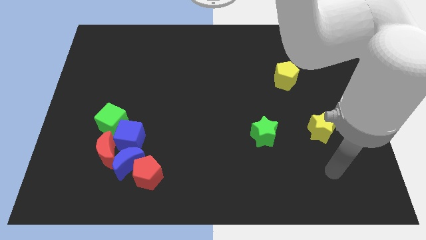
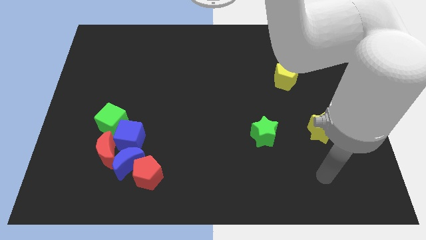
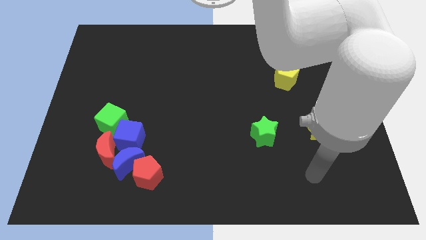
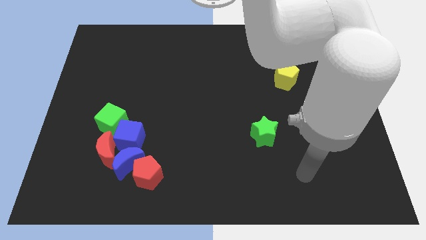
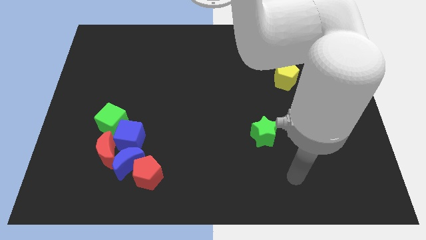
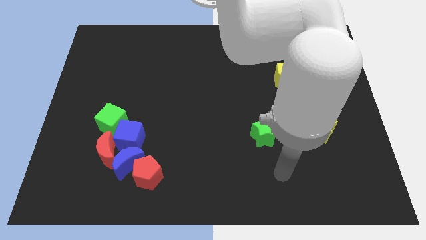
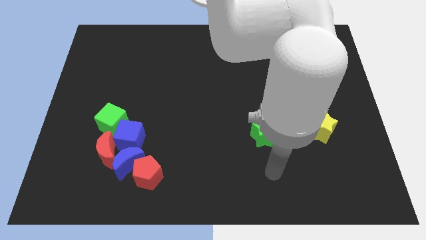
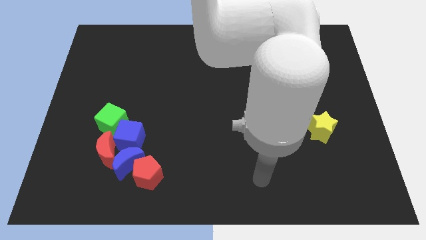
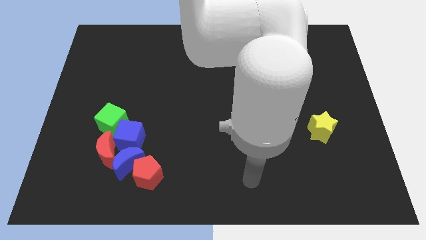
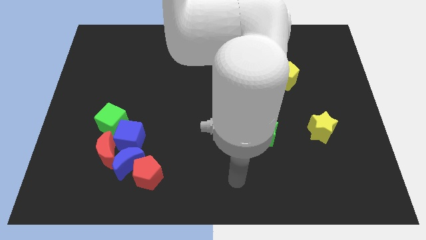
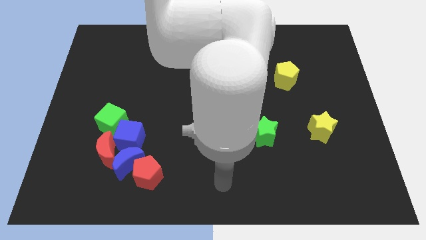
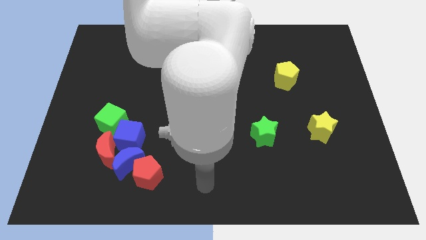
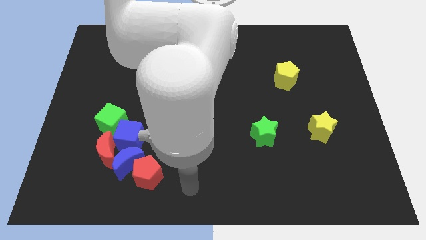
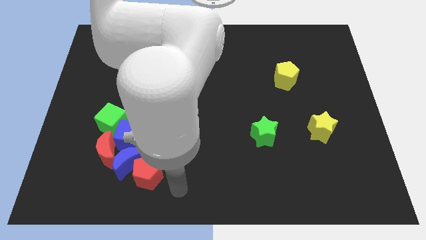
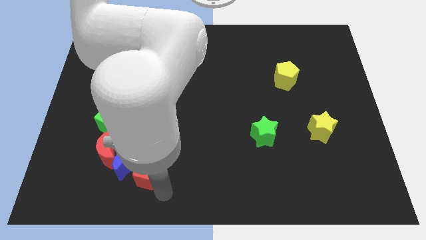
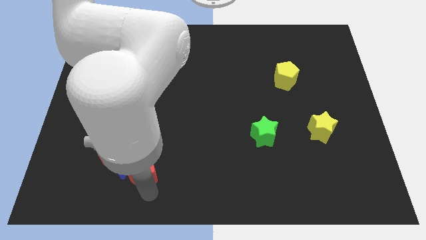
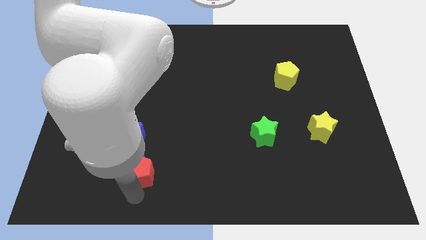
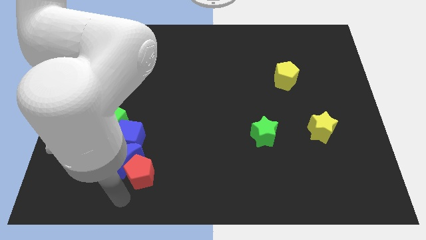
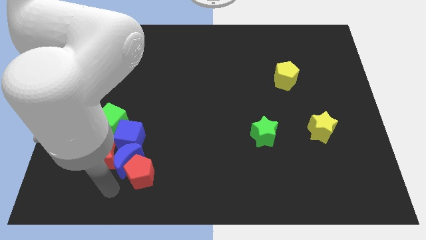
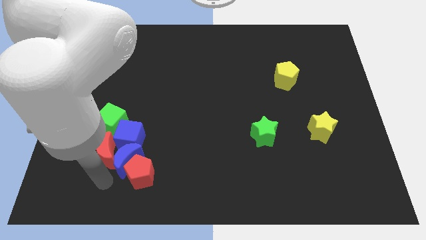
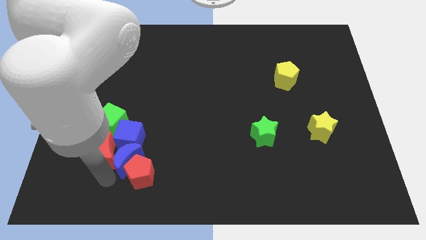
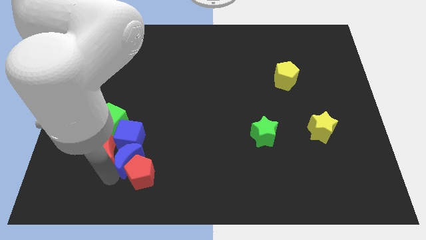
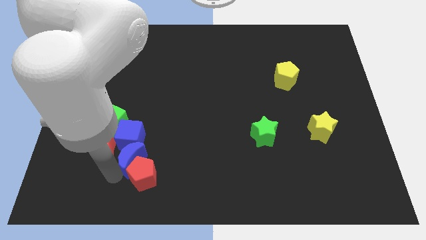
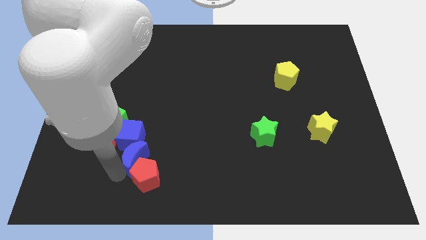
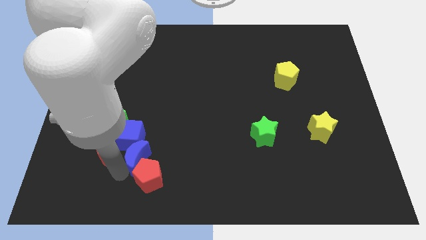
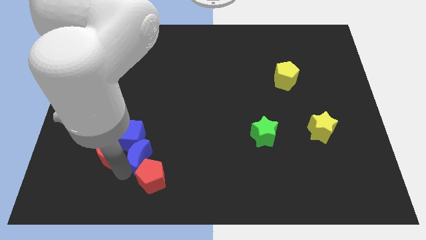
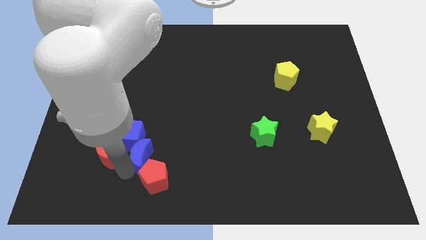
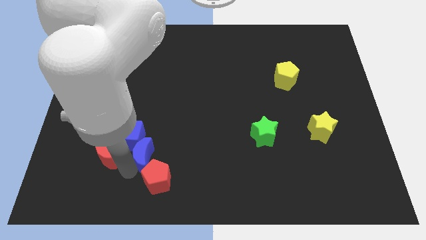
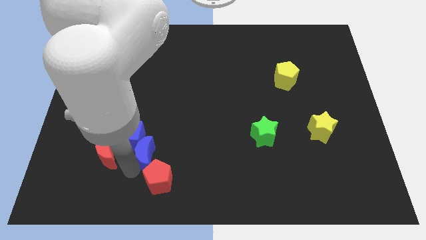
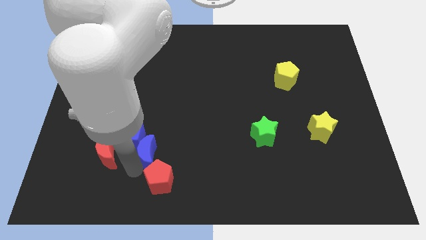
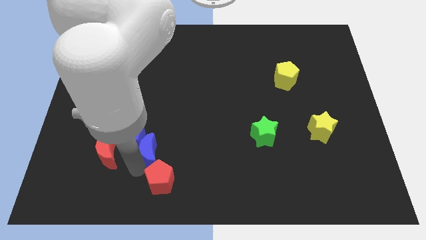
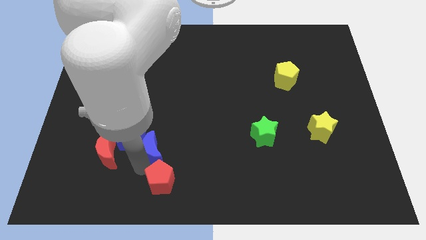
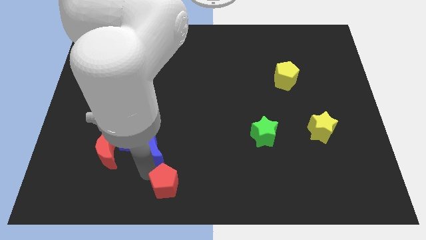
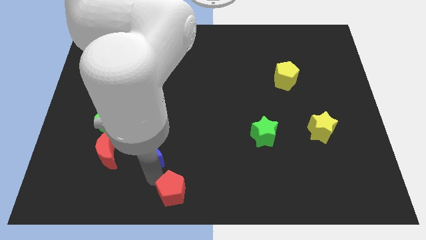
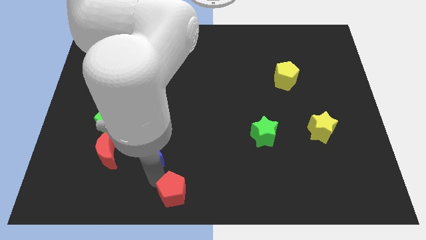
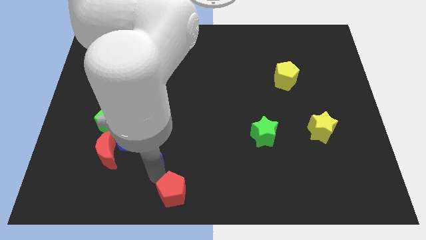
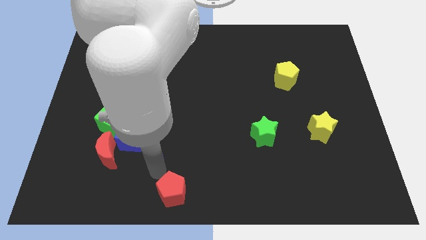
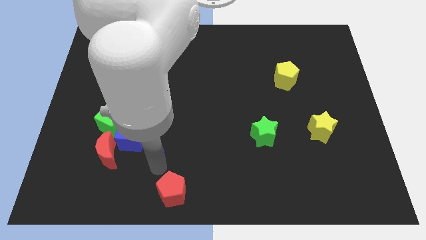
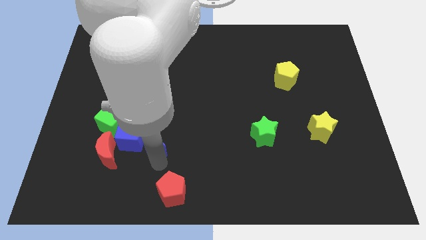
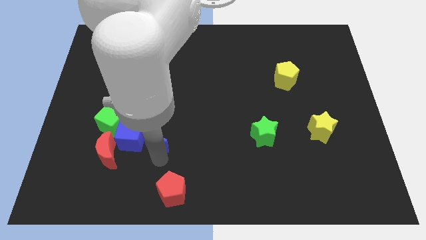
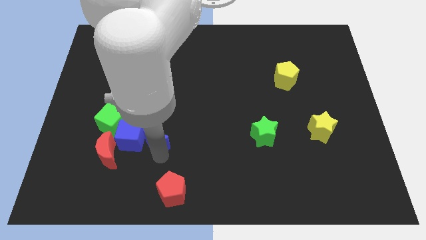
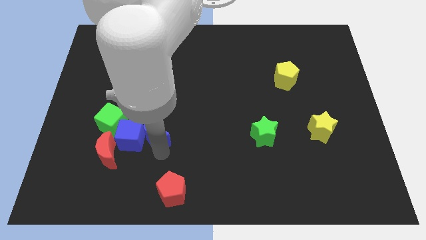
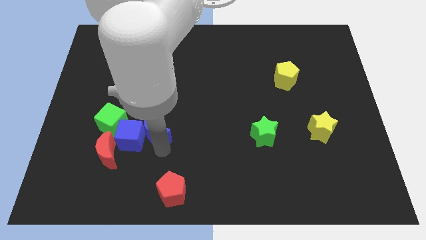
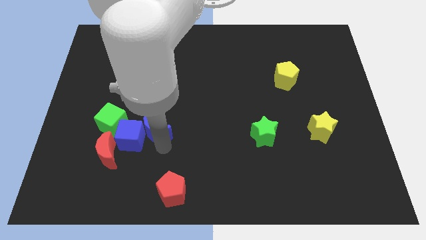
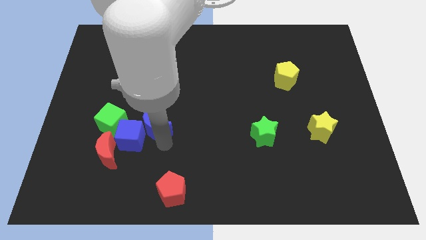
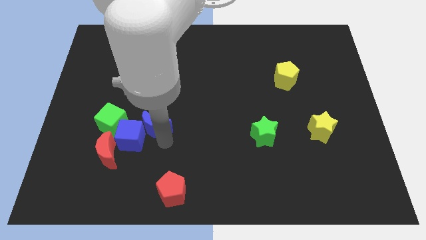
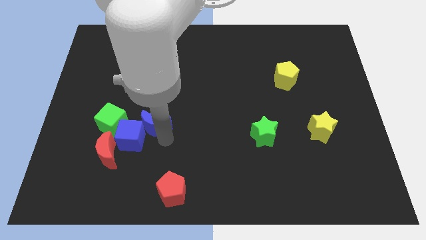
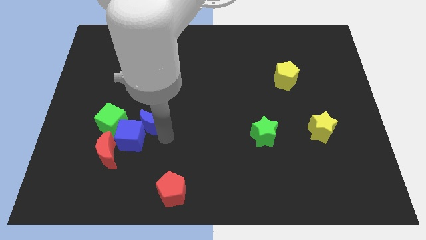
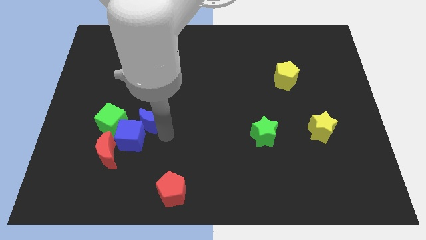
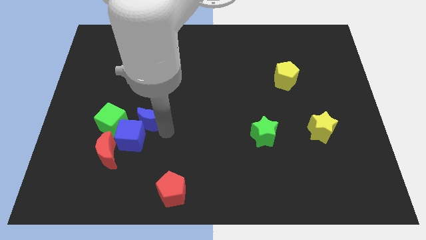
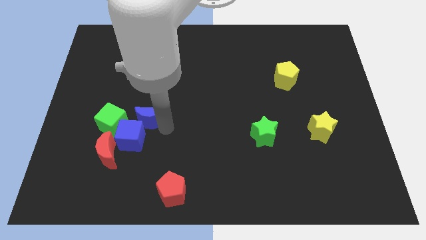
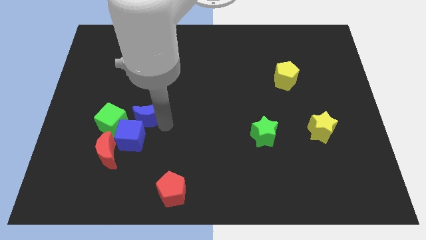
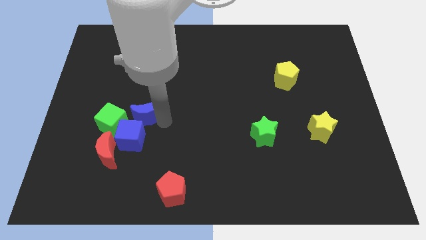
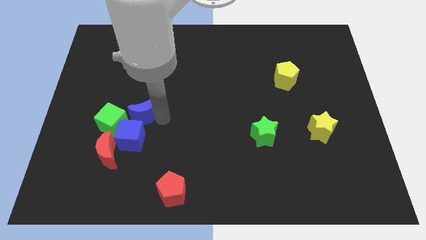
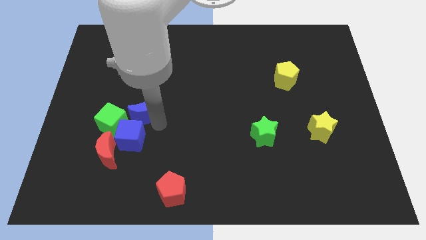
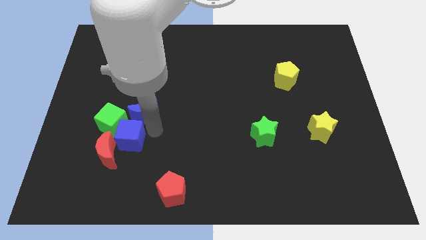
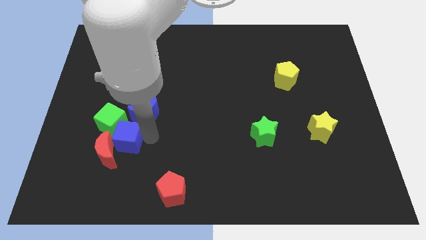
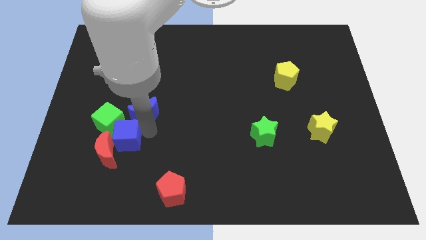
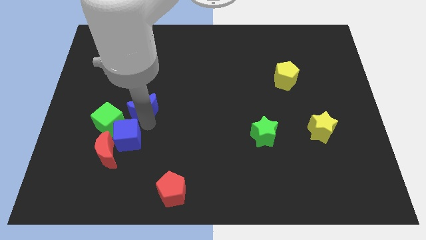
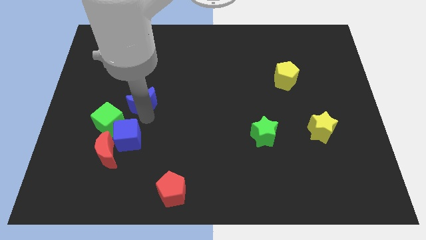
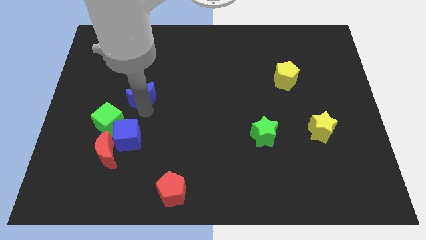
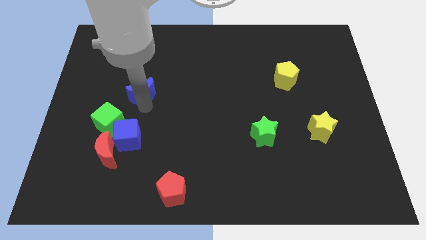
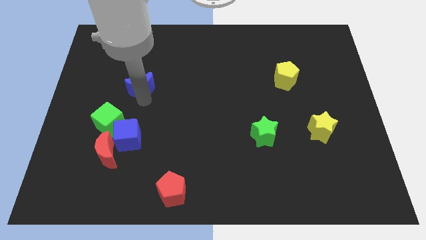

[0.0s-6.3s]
push the blue moon up

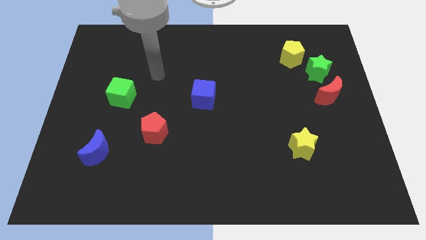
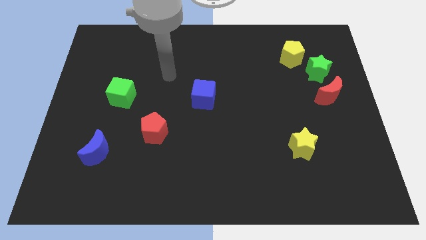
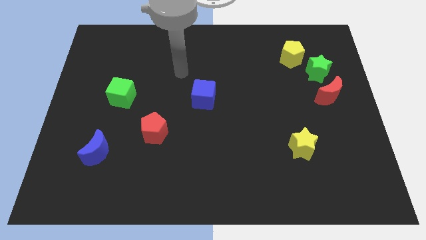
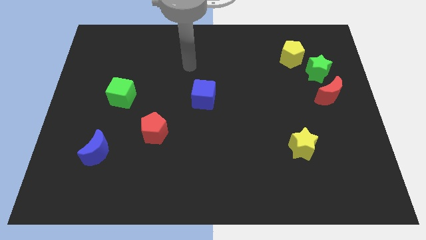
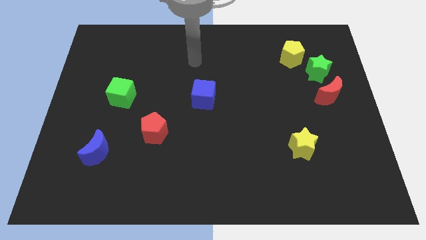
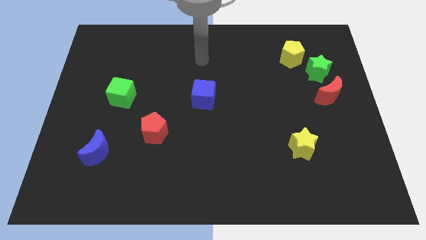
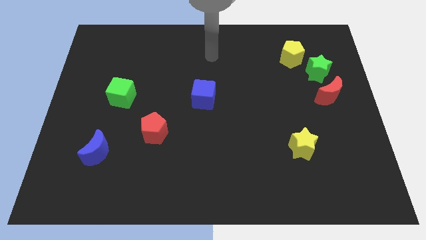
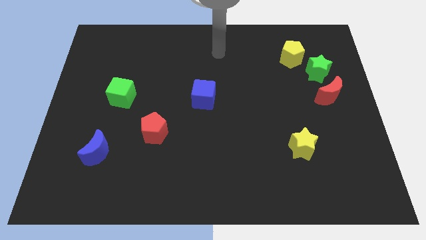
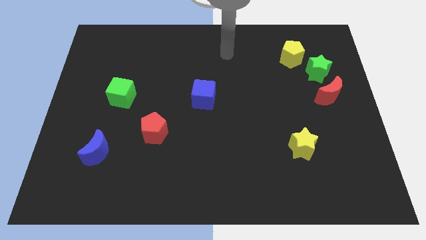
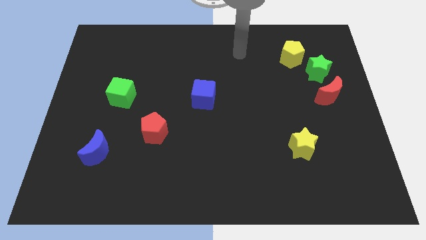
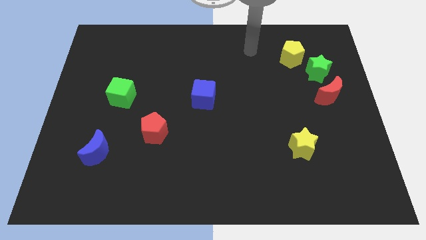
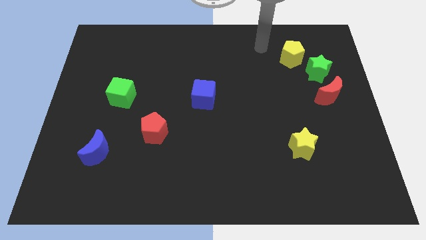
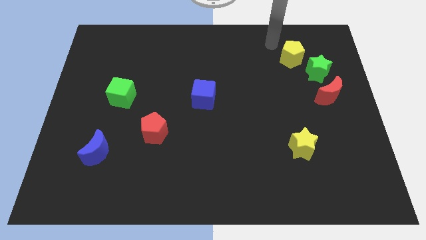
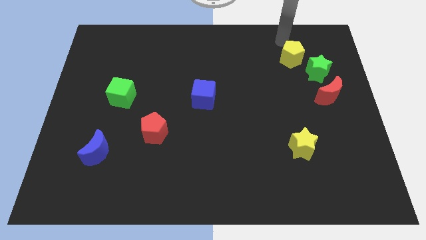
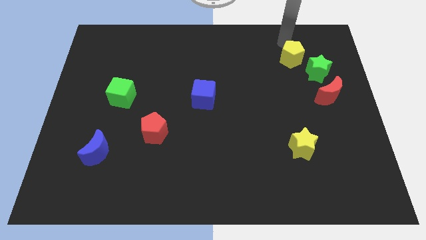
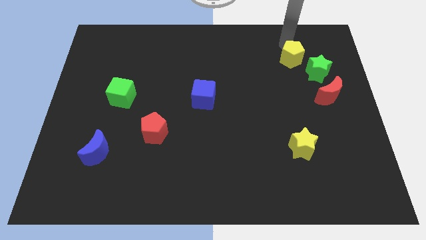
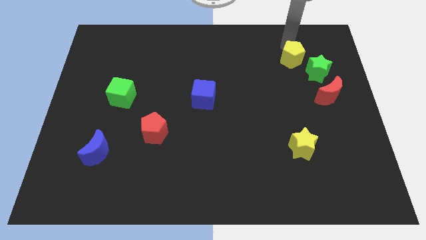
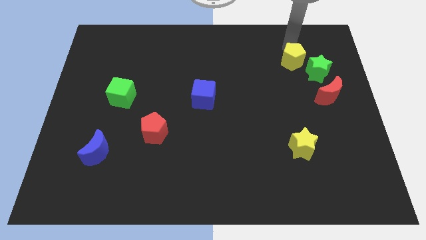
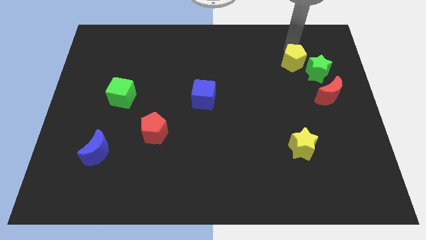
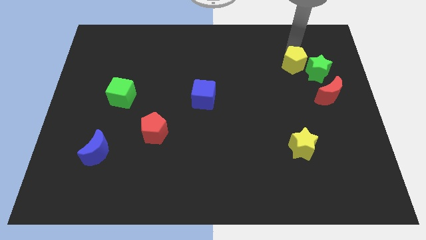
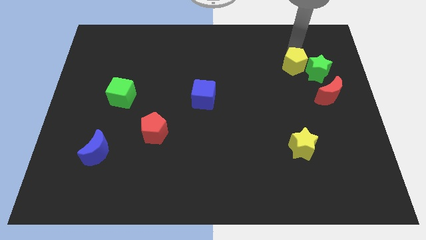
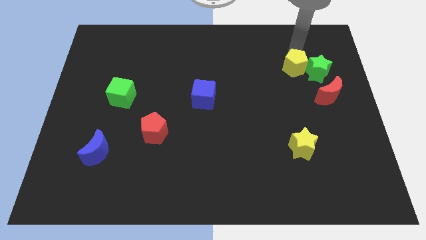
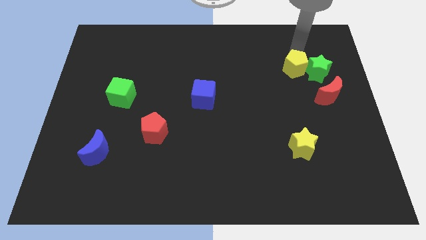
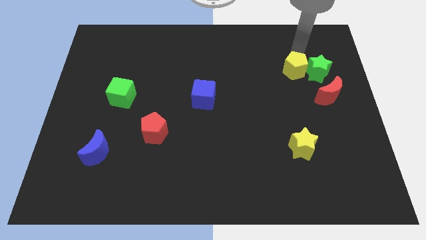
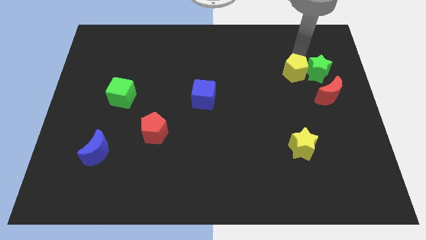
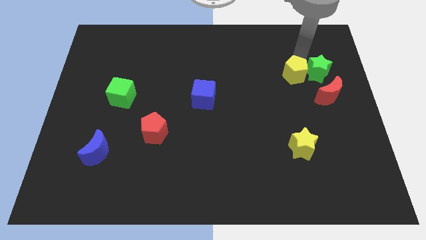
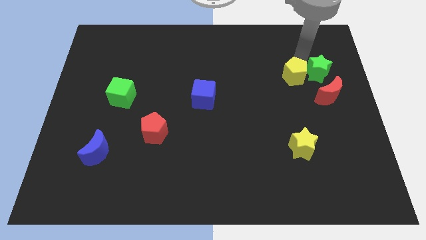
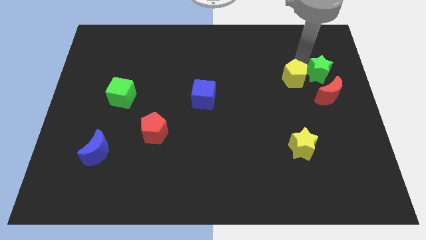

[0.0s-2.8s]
slide the yellow pentagon downwards a little bit
